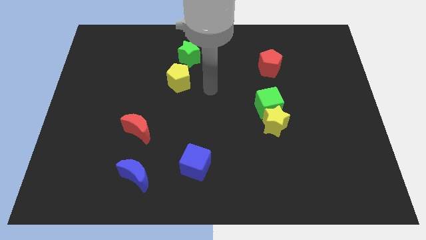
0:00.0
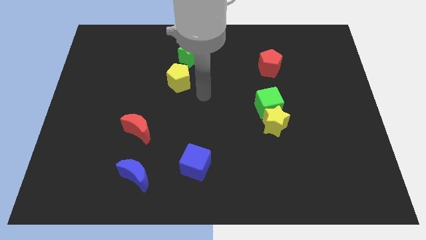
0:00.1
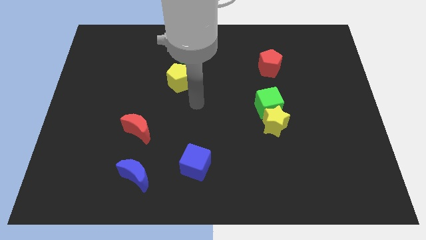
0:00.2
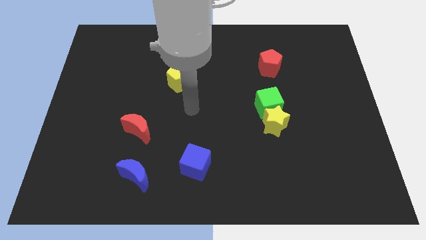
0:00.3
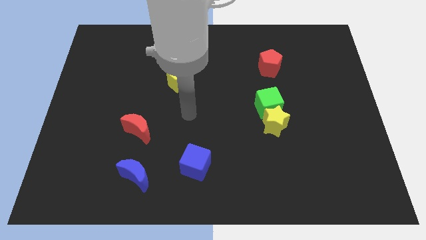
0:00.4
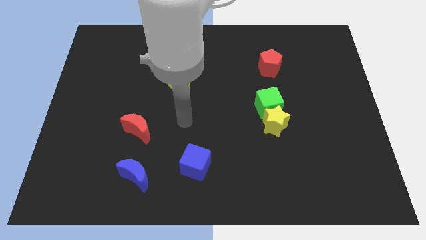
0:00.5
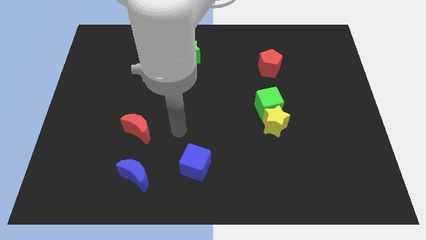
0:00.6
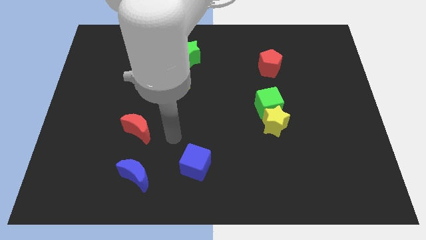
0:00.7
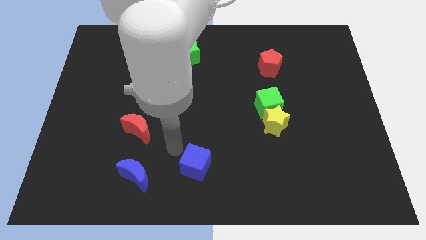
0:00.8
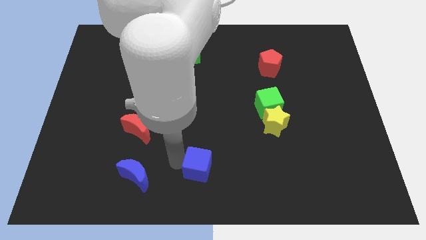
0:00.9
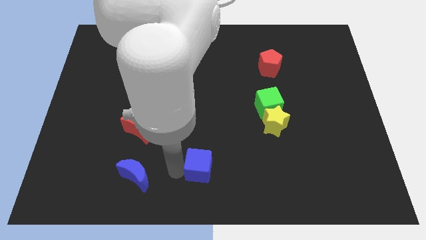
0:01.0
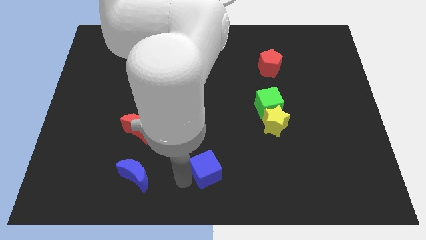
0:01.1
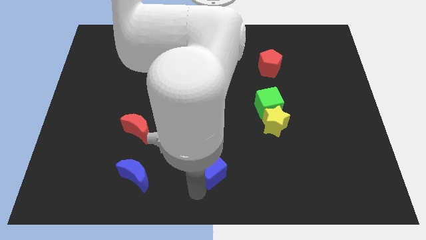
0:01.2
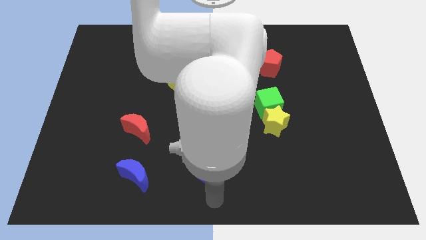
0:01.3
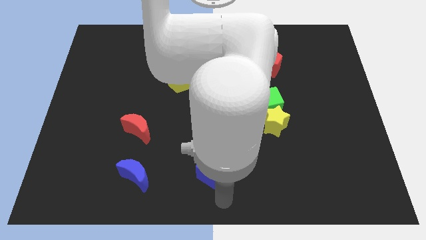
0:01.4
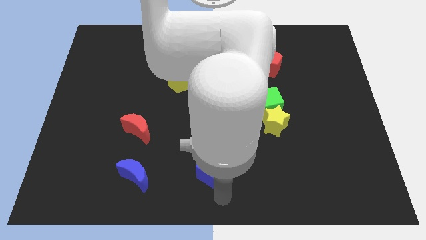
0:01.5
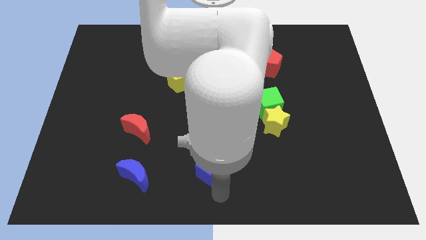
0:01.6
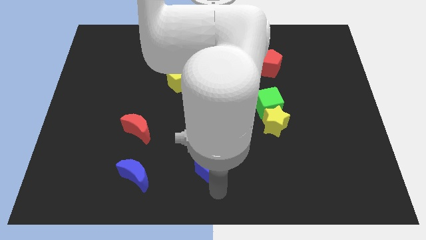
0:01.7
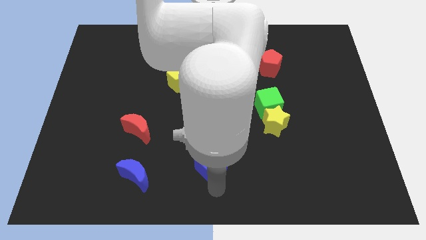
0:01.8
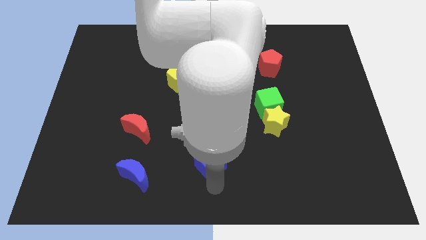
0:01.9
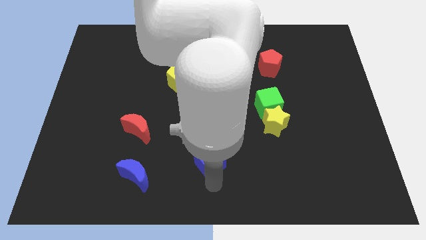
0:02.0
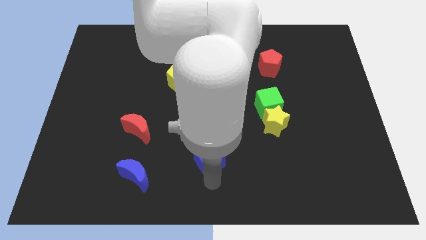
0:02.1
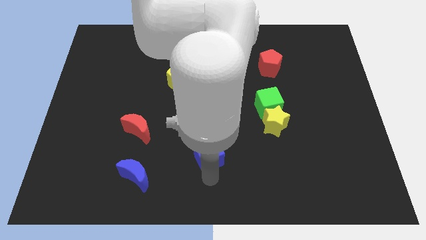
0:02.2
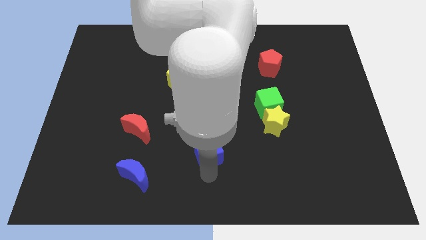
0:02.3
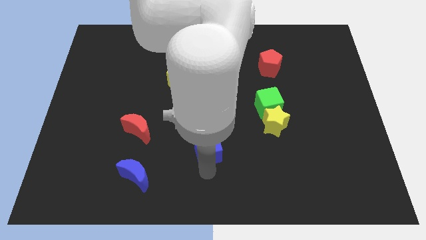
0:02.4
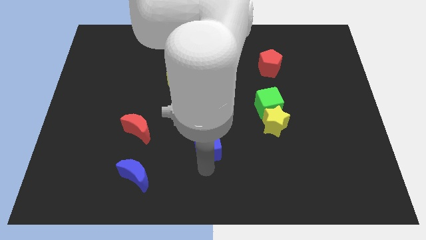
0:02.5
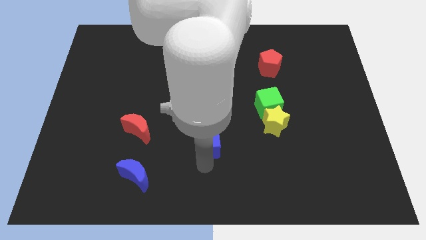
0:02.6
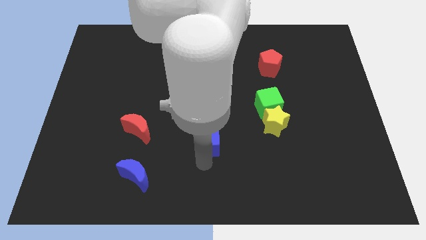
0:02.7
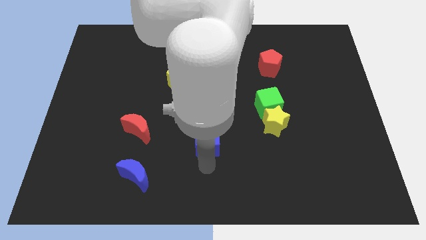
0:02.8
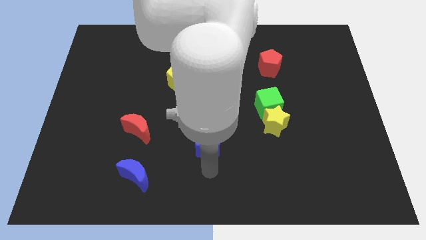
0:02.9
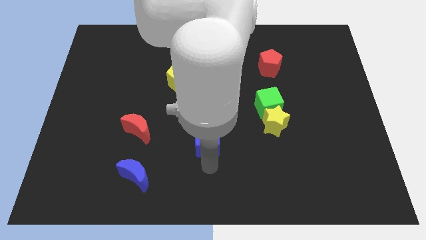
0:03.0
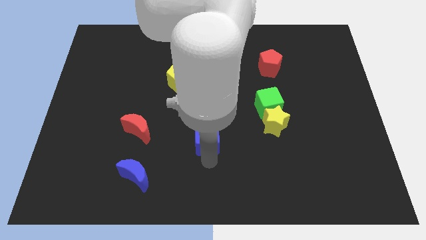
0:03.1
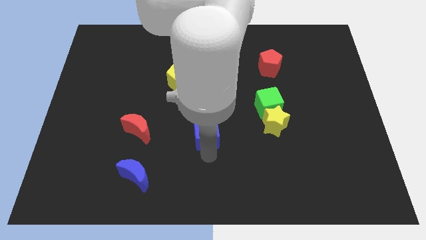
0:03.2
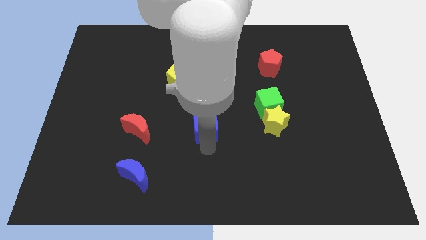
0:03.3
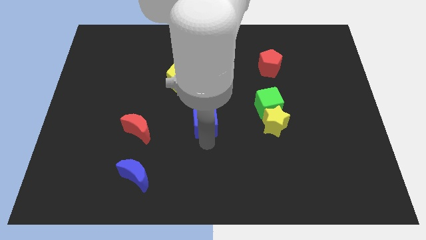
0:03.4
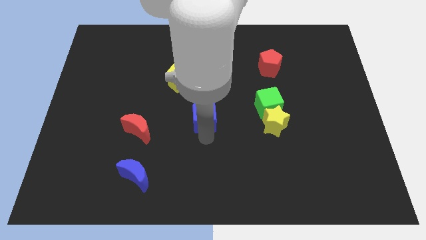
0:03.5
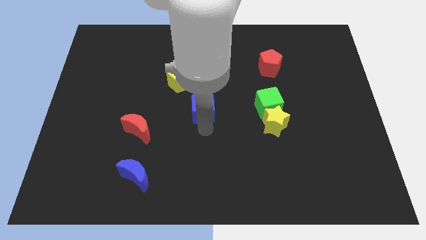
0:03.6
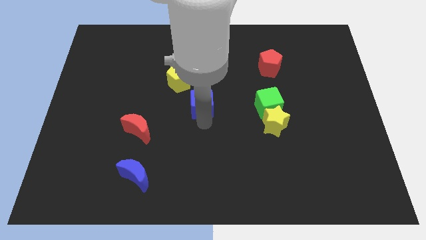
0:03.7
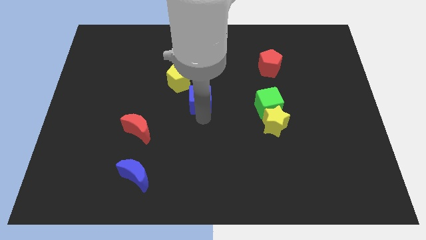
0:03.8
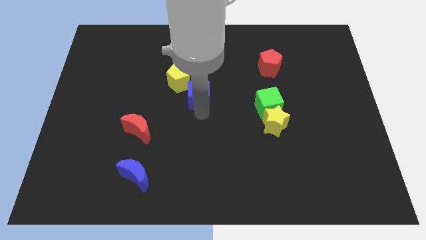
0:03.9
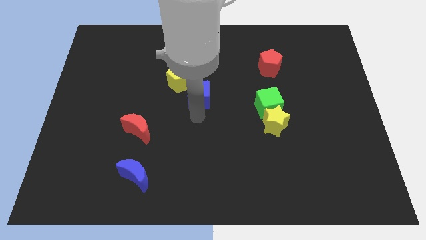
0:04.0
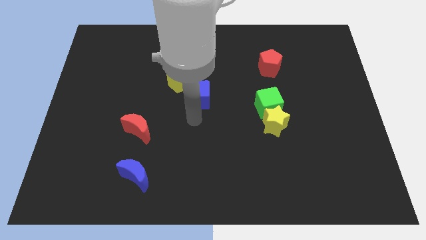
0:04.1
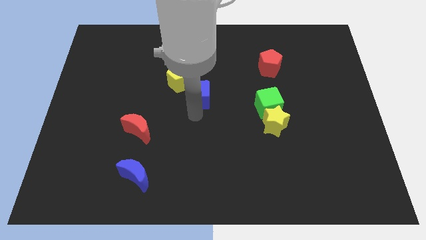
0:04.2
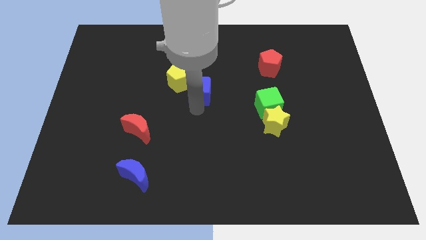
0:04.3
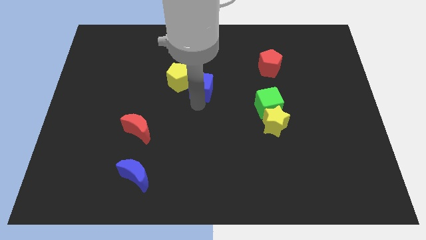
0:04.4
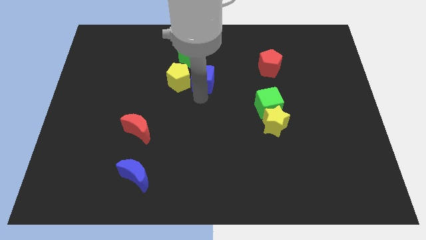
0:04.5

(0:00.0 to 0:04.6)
move the blue cube to the top right side of the yellow pentagon

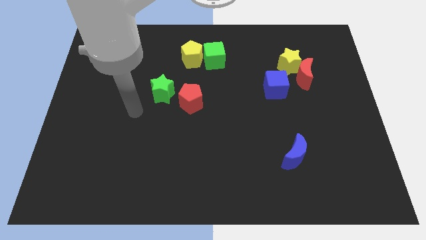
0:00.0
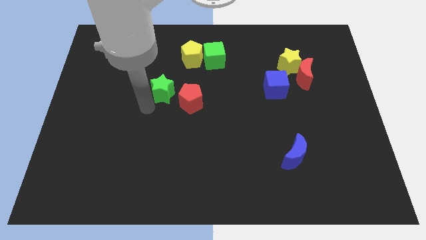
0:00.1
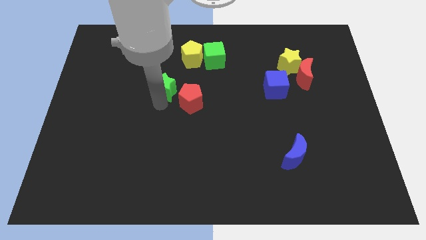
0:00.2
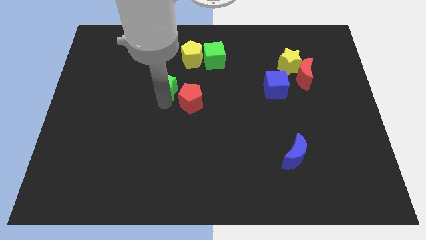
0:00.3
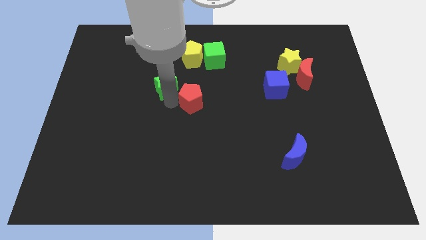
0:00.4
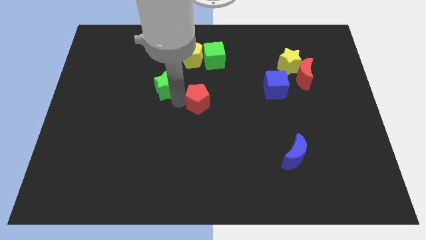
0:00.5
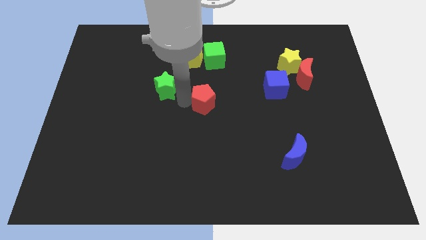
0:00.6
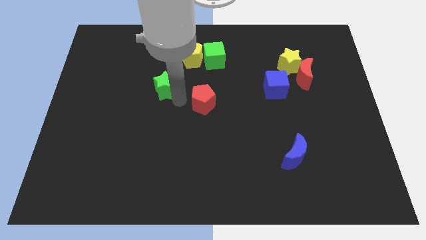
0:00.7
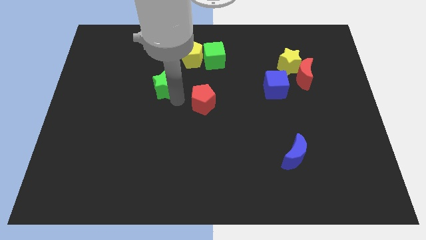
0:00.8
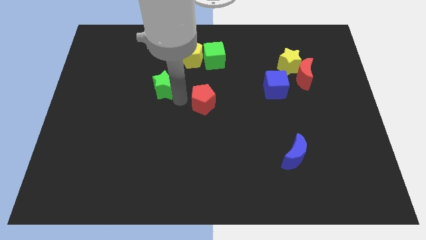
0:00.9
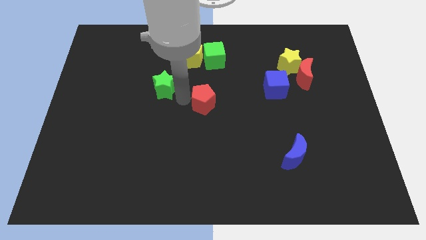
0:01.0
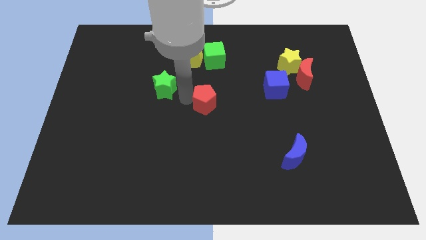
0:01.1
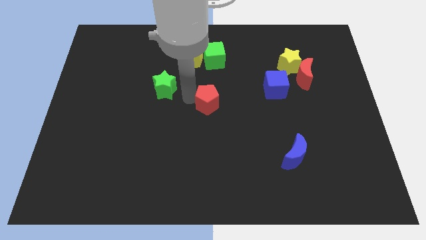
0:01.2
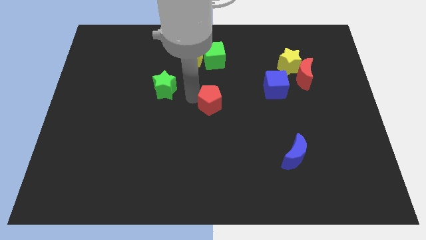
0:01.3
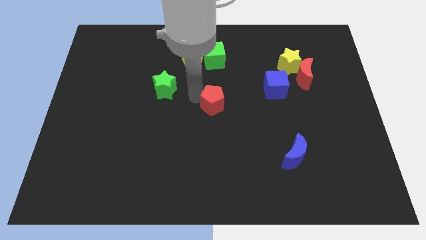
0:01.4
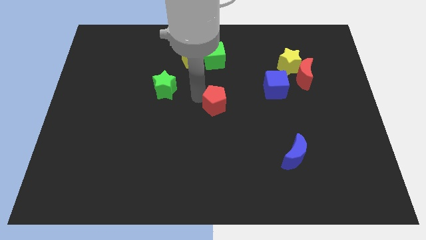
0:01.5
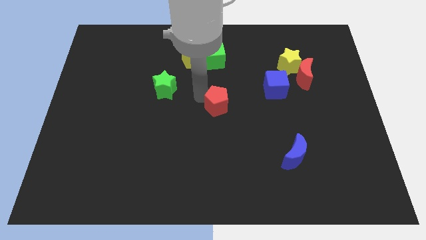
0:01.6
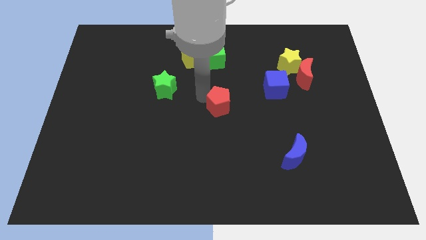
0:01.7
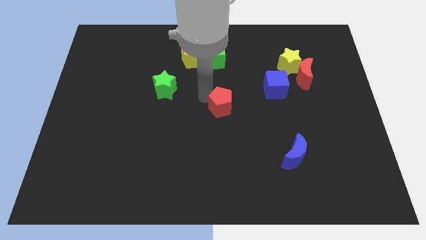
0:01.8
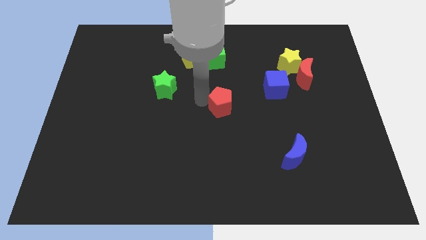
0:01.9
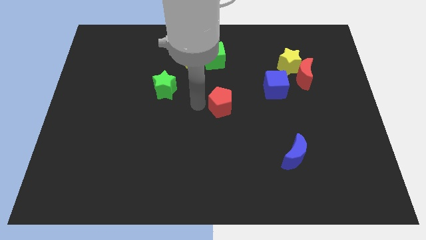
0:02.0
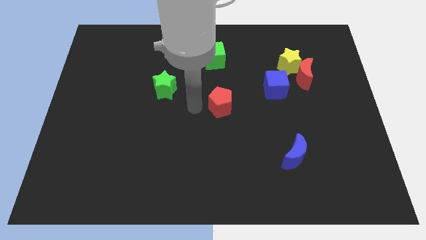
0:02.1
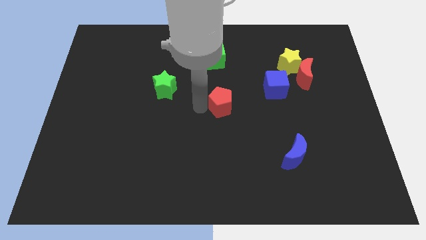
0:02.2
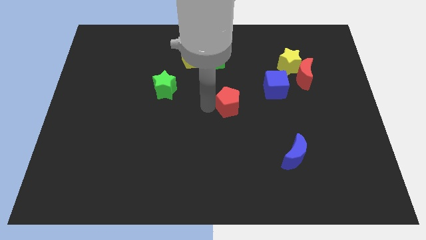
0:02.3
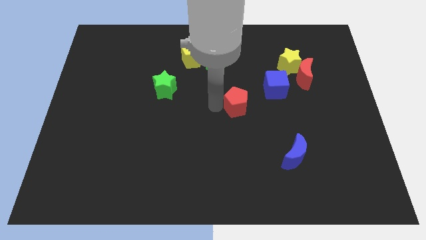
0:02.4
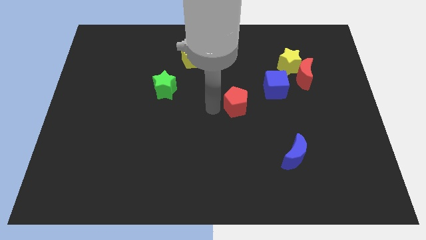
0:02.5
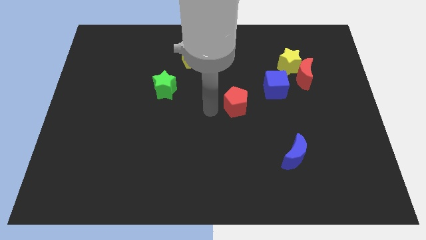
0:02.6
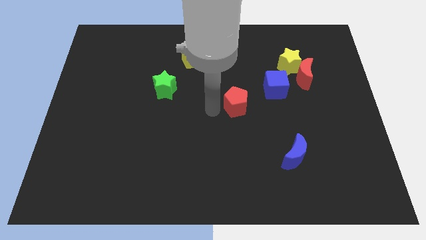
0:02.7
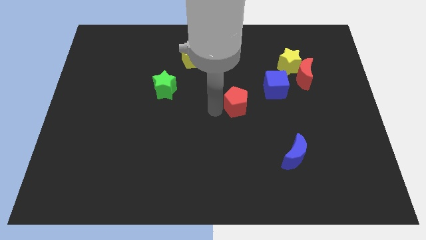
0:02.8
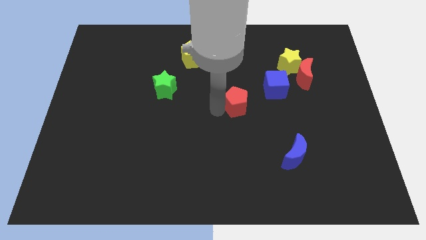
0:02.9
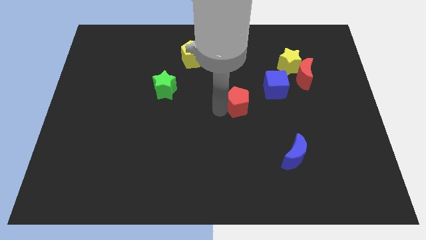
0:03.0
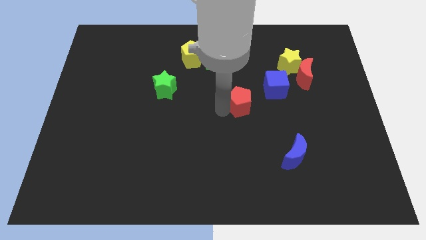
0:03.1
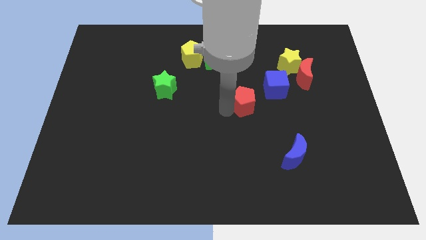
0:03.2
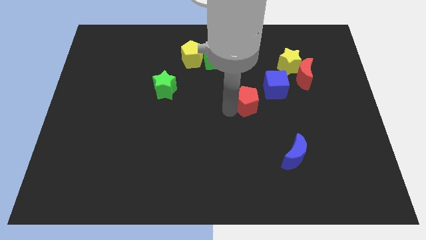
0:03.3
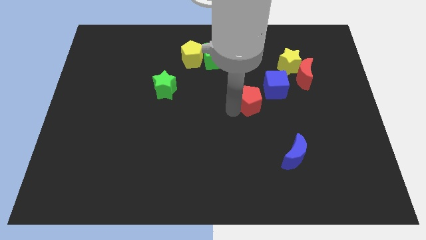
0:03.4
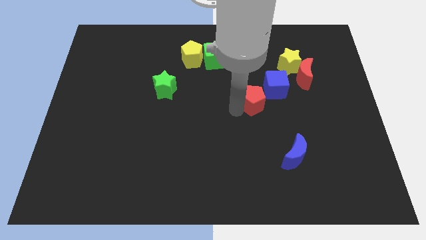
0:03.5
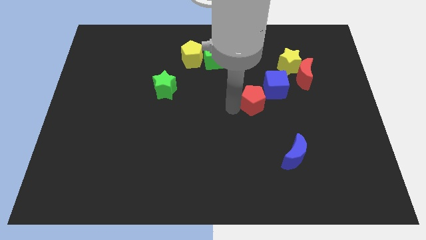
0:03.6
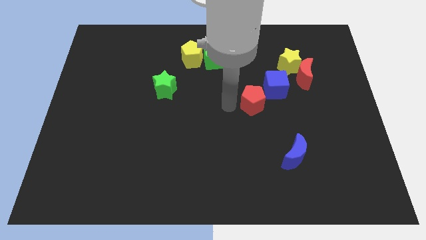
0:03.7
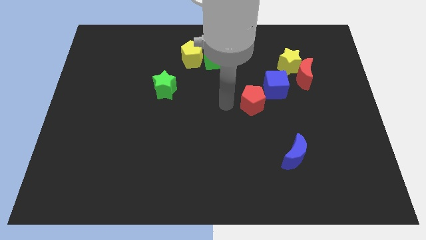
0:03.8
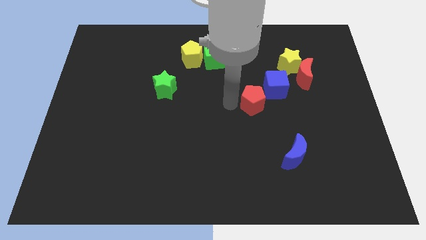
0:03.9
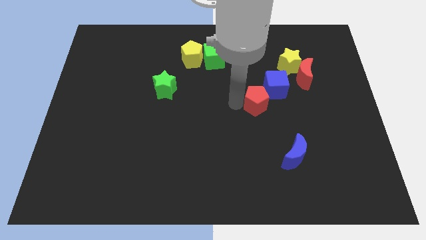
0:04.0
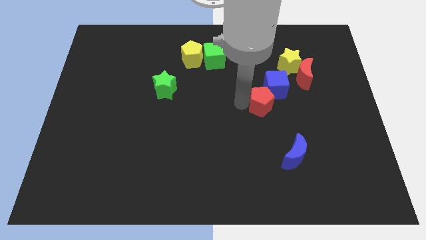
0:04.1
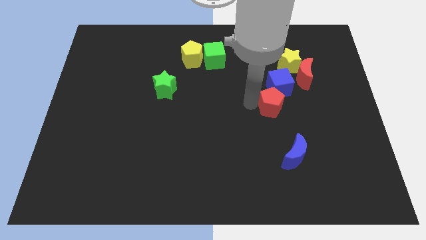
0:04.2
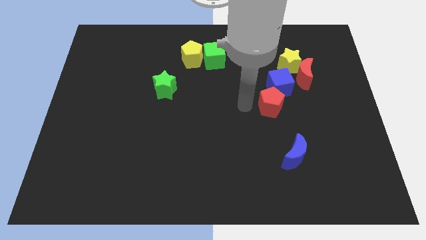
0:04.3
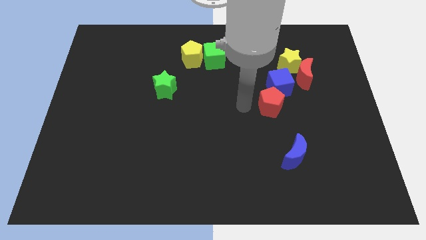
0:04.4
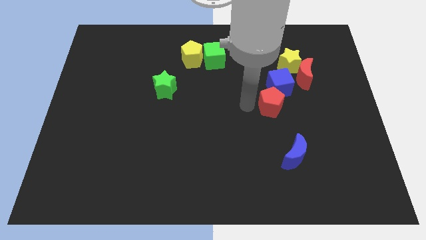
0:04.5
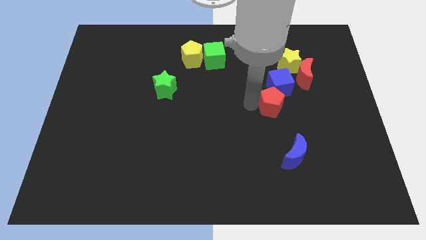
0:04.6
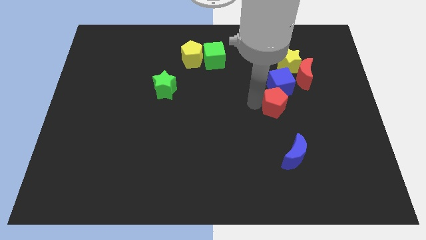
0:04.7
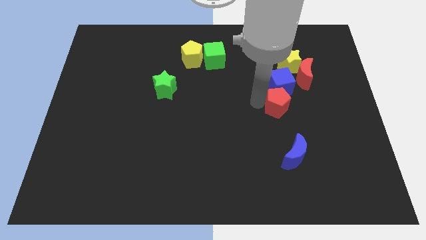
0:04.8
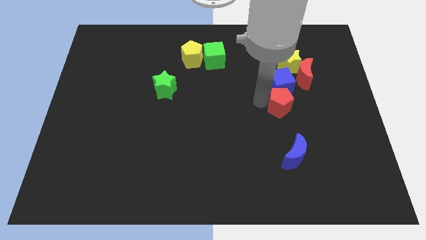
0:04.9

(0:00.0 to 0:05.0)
put the red pentagon to the bottom right of the blue cube
